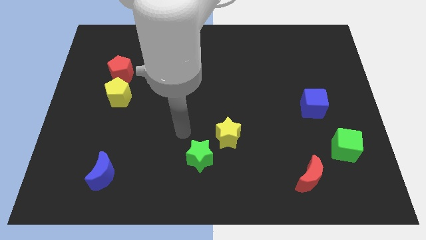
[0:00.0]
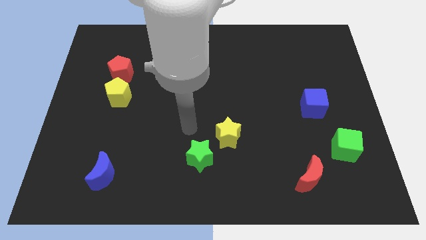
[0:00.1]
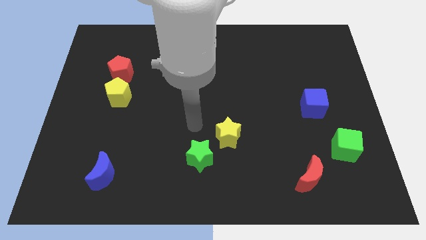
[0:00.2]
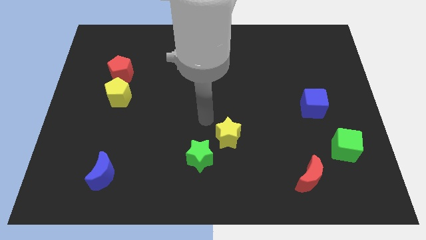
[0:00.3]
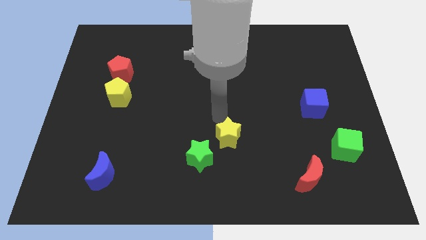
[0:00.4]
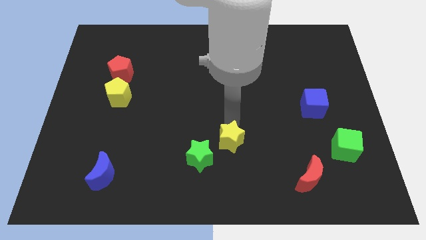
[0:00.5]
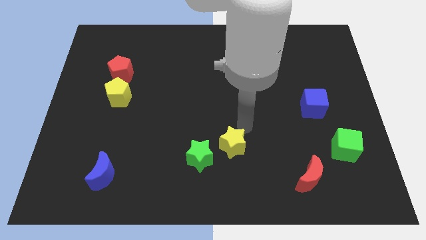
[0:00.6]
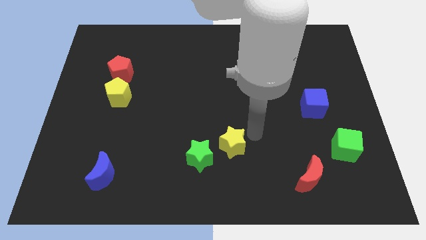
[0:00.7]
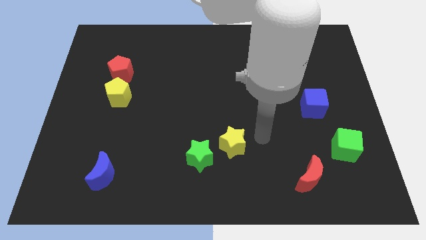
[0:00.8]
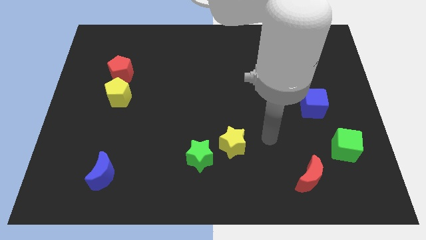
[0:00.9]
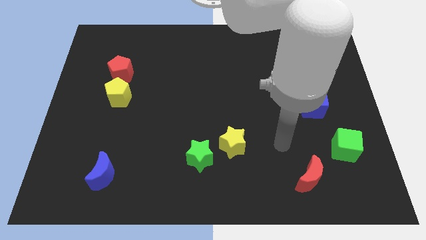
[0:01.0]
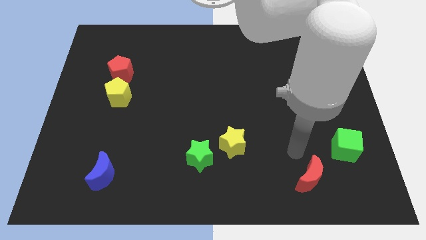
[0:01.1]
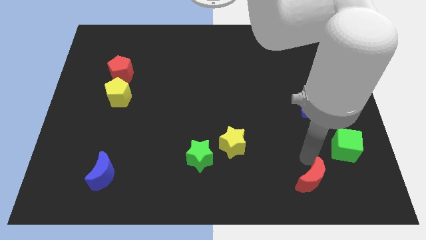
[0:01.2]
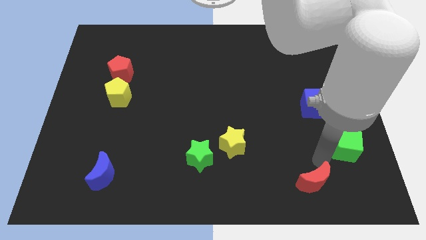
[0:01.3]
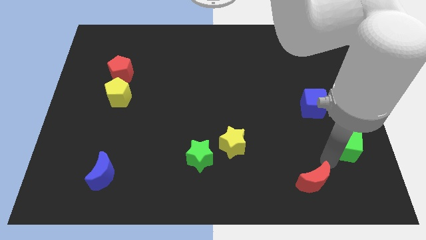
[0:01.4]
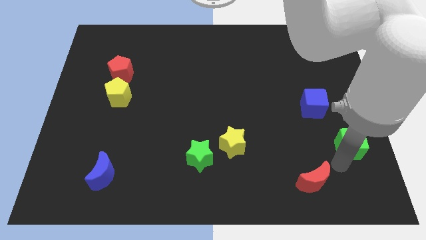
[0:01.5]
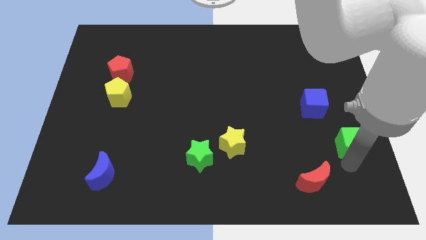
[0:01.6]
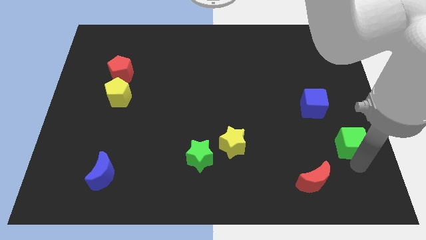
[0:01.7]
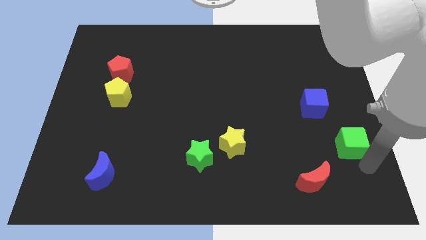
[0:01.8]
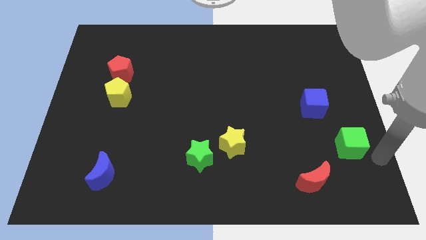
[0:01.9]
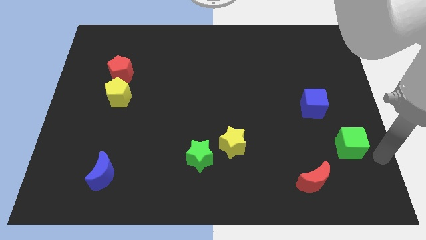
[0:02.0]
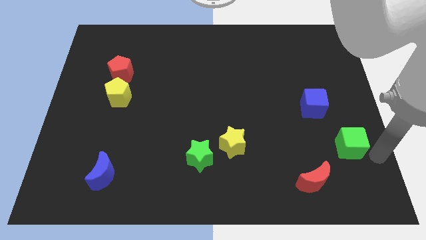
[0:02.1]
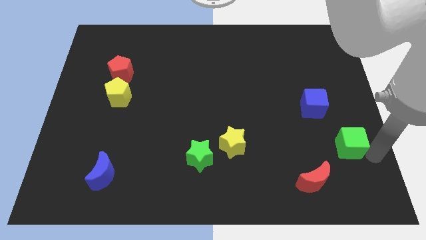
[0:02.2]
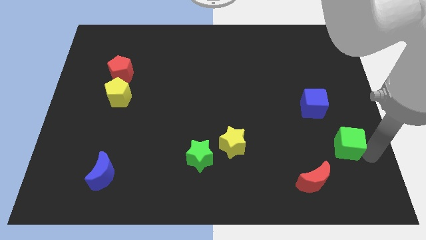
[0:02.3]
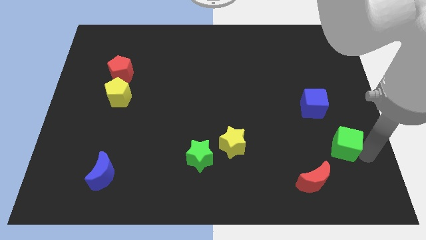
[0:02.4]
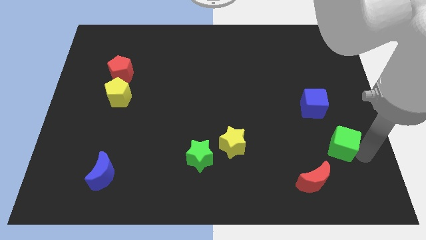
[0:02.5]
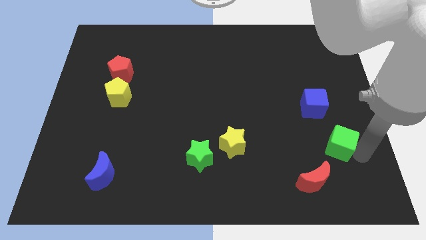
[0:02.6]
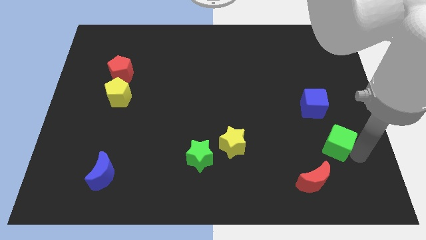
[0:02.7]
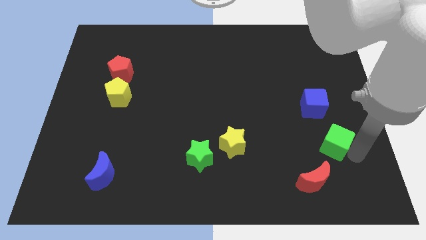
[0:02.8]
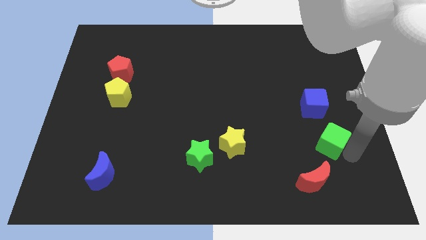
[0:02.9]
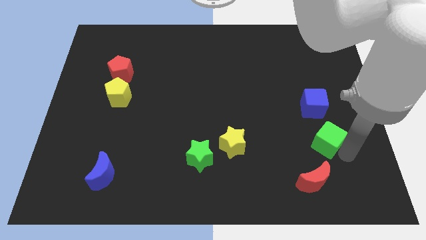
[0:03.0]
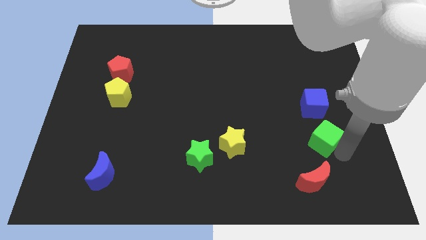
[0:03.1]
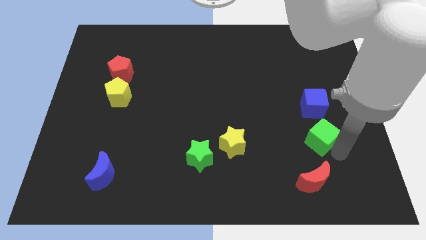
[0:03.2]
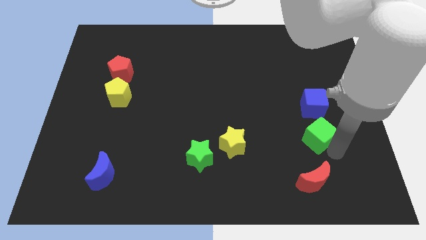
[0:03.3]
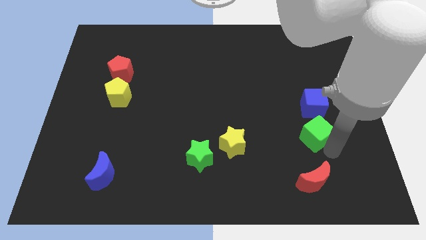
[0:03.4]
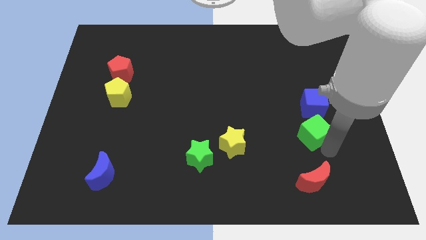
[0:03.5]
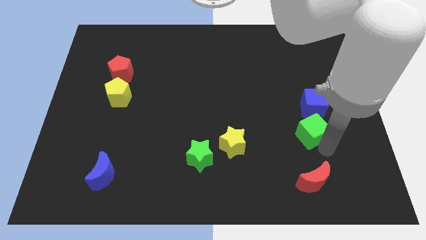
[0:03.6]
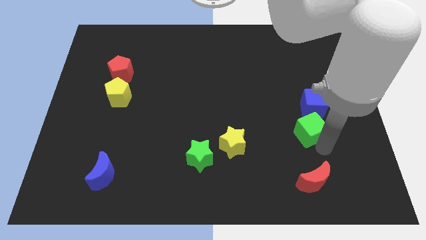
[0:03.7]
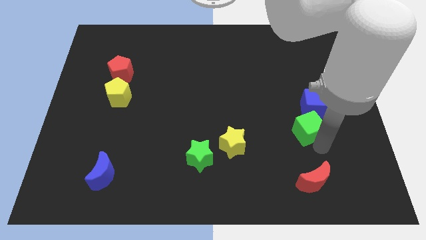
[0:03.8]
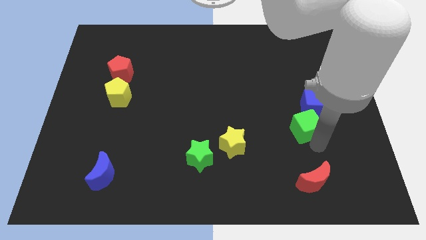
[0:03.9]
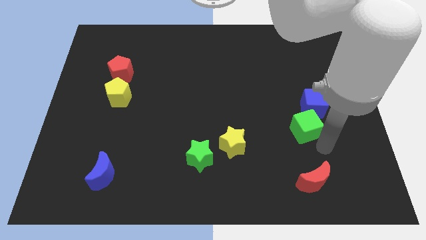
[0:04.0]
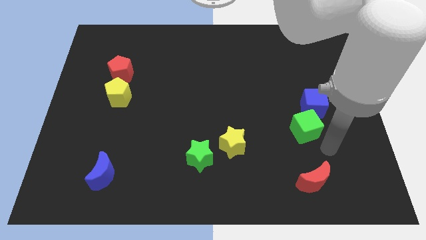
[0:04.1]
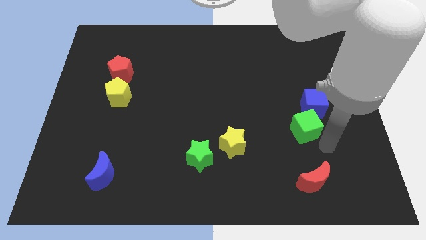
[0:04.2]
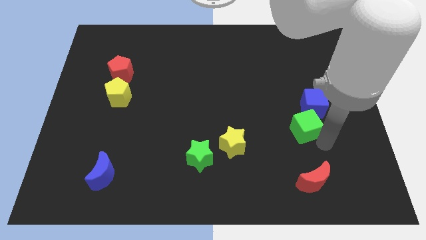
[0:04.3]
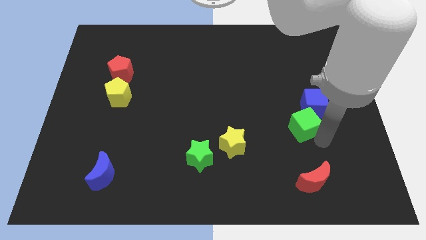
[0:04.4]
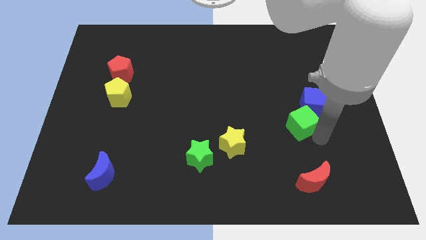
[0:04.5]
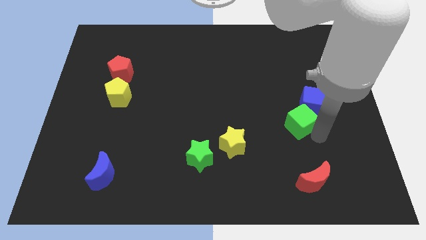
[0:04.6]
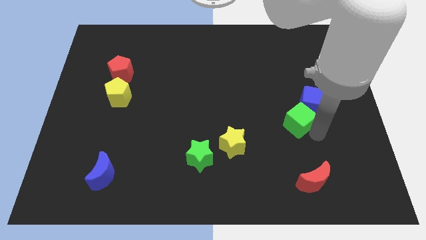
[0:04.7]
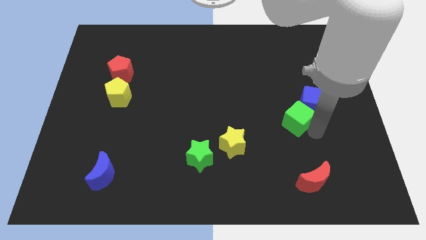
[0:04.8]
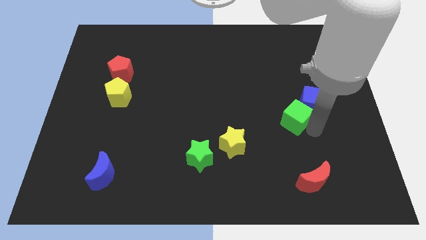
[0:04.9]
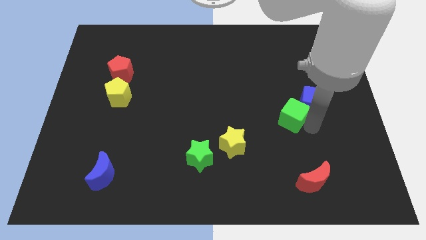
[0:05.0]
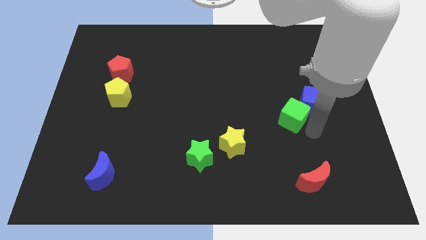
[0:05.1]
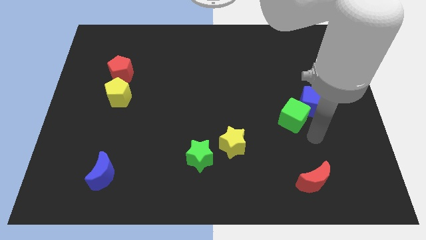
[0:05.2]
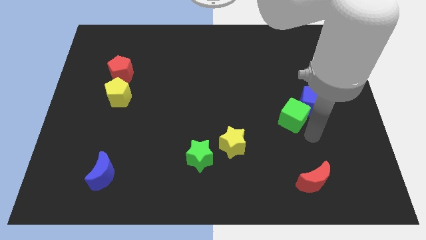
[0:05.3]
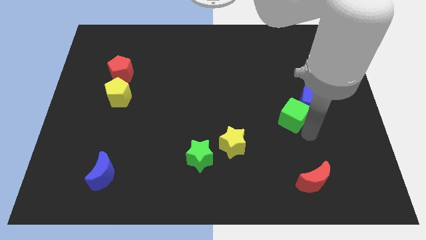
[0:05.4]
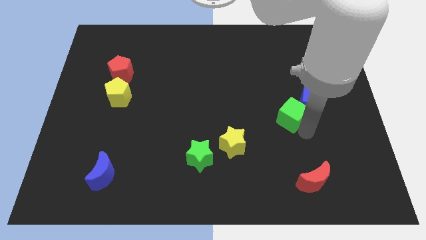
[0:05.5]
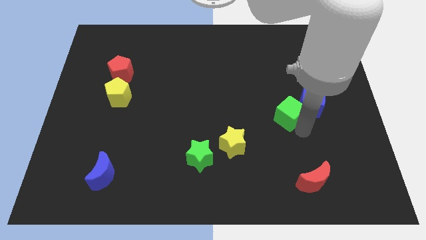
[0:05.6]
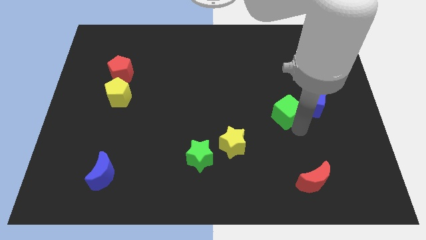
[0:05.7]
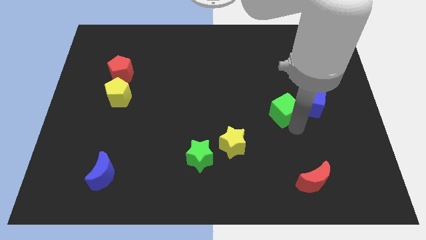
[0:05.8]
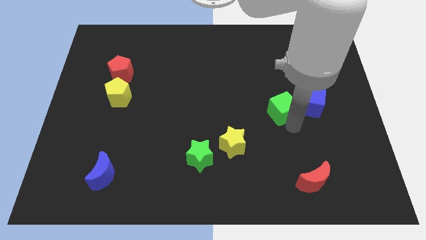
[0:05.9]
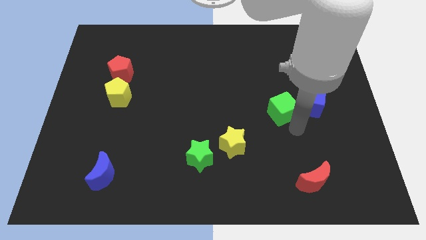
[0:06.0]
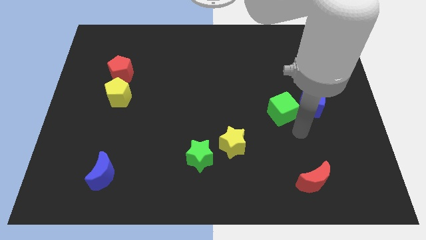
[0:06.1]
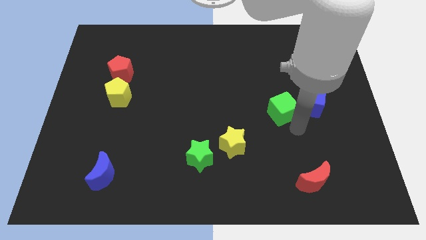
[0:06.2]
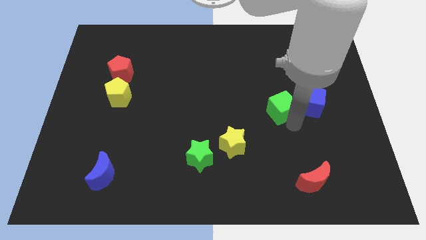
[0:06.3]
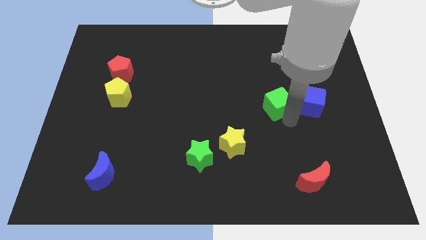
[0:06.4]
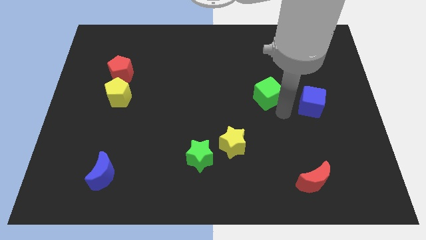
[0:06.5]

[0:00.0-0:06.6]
slide the green cube up and to the left diagonally

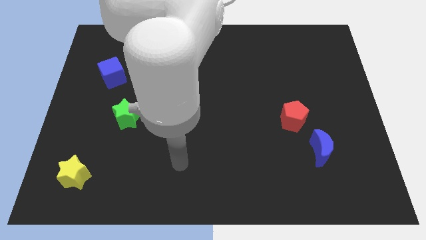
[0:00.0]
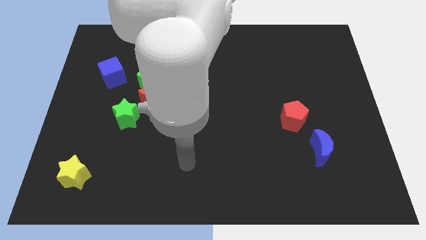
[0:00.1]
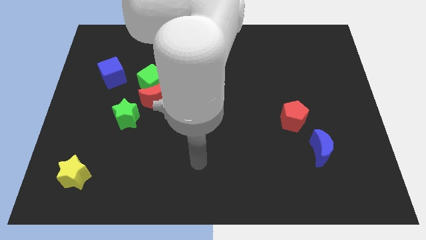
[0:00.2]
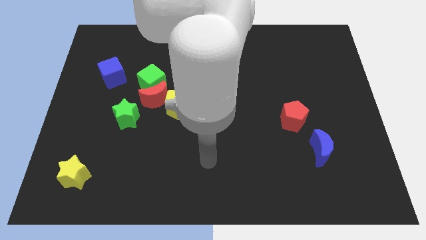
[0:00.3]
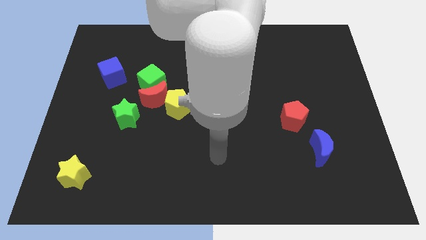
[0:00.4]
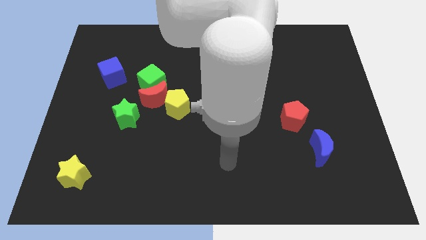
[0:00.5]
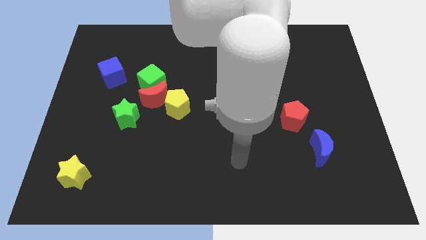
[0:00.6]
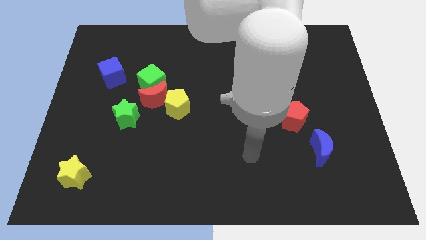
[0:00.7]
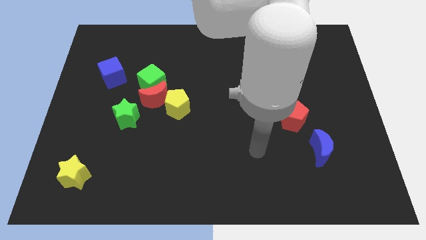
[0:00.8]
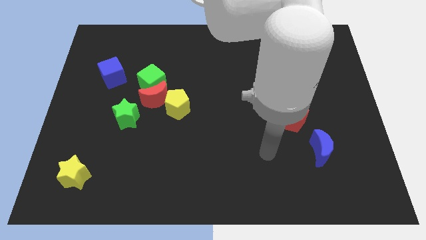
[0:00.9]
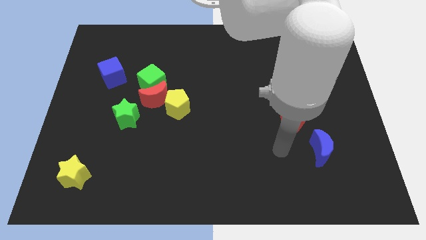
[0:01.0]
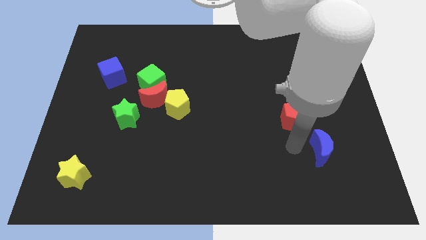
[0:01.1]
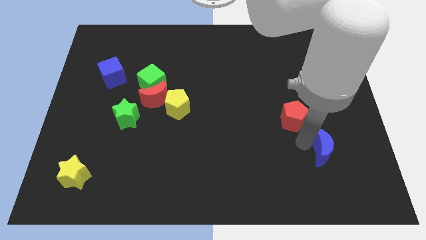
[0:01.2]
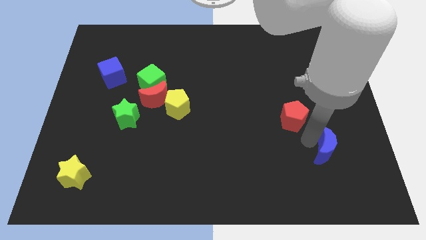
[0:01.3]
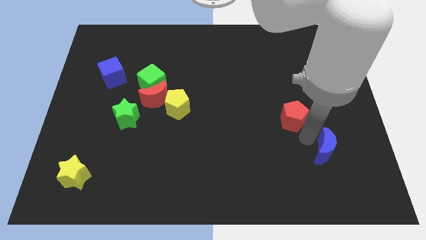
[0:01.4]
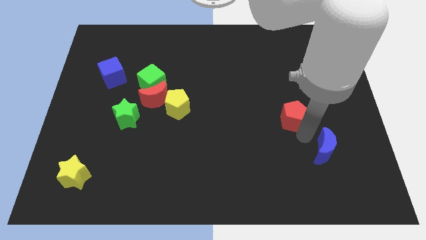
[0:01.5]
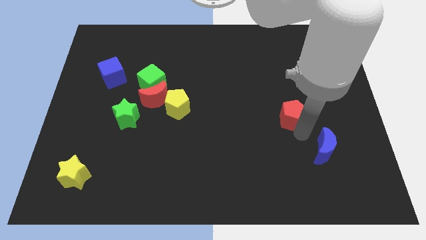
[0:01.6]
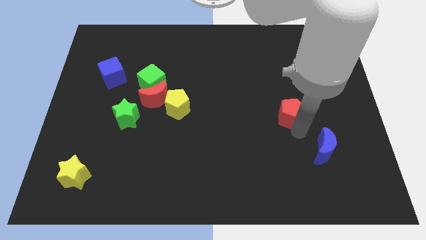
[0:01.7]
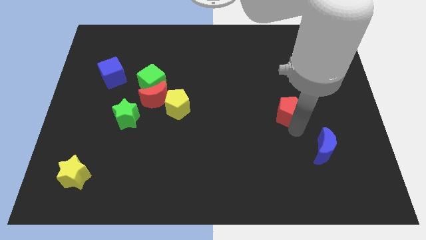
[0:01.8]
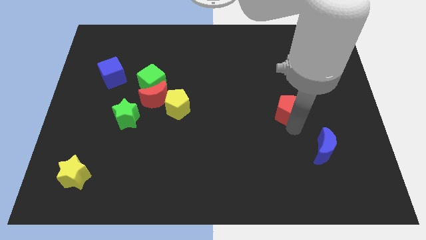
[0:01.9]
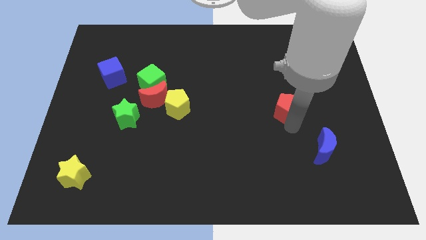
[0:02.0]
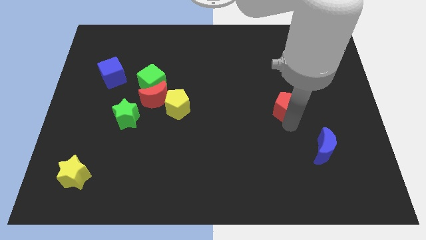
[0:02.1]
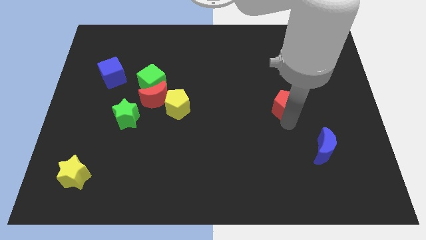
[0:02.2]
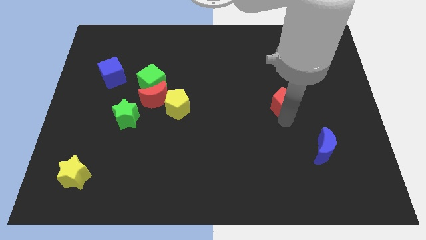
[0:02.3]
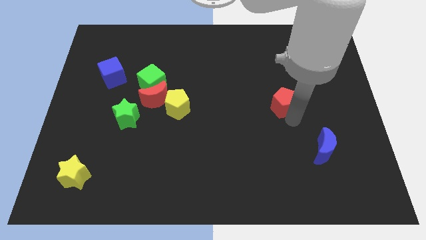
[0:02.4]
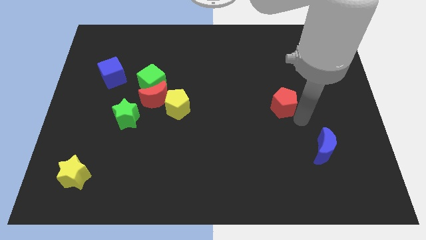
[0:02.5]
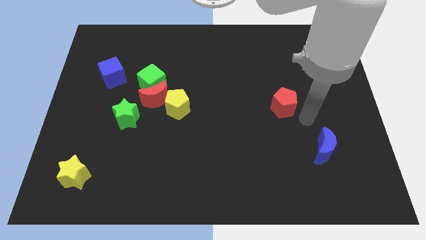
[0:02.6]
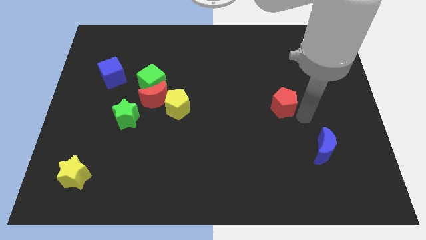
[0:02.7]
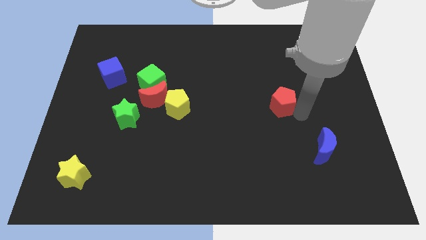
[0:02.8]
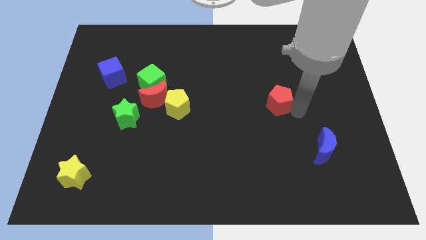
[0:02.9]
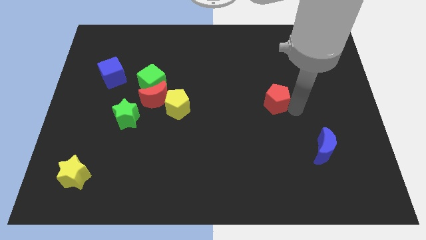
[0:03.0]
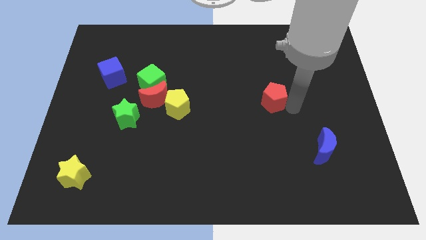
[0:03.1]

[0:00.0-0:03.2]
slightly move the red pentagon up and to the left diagonally
